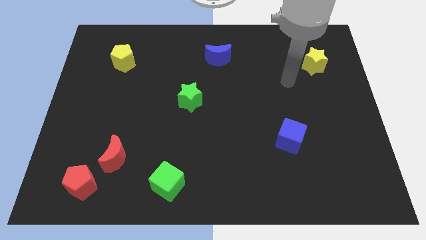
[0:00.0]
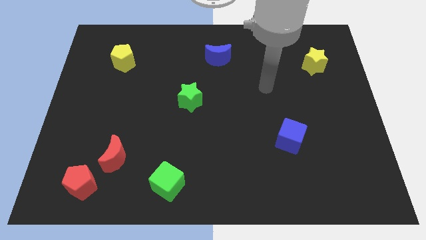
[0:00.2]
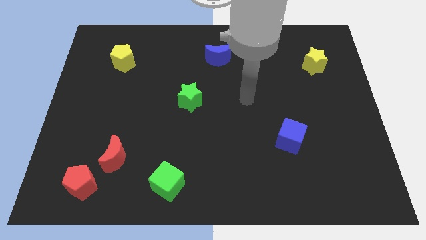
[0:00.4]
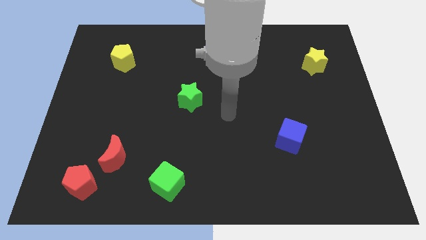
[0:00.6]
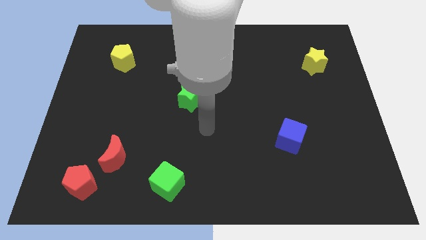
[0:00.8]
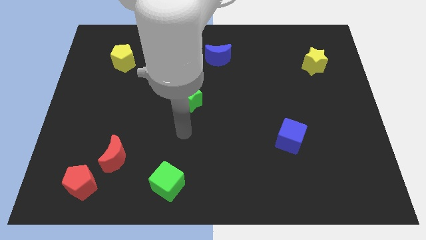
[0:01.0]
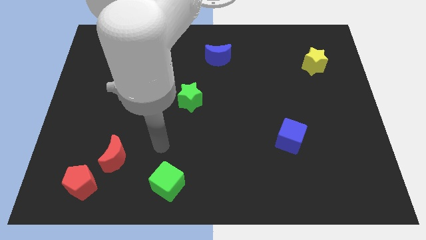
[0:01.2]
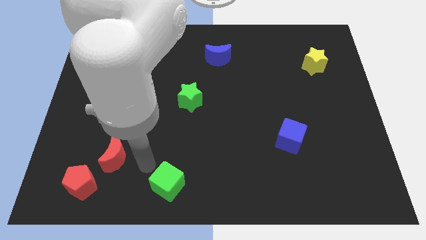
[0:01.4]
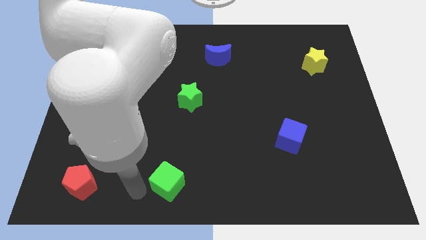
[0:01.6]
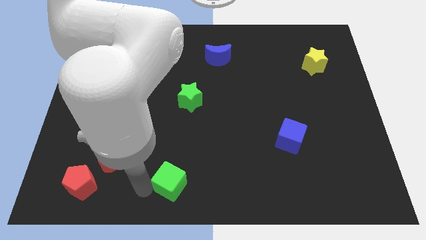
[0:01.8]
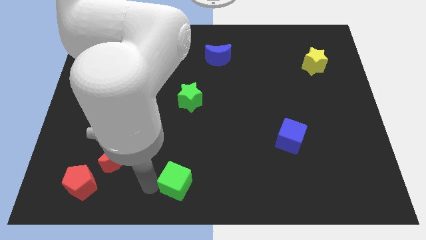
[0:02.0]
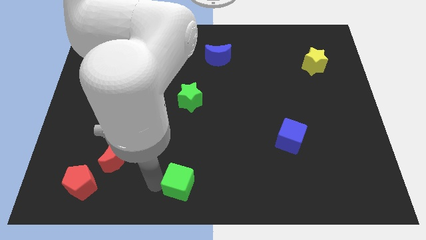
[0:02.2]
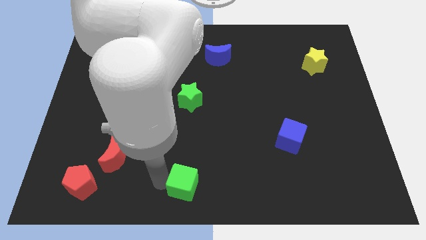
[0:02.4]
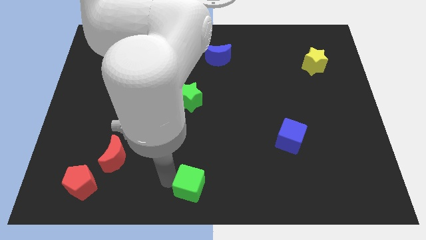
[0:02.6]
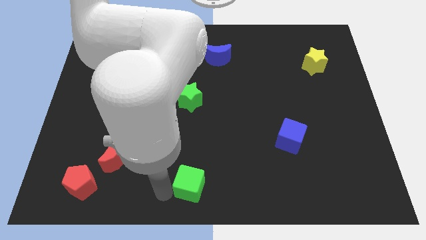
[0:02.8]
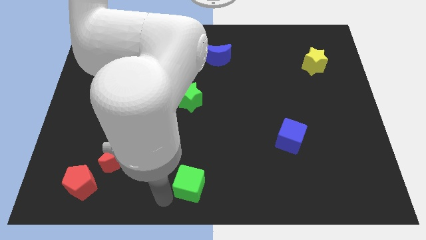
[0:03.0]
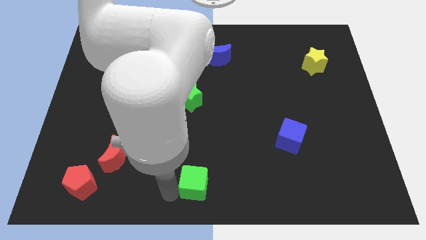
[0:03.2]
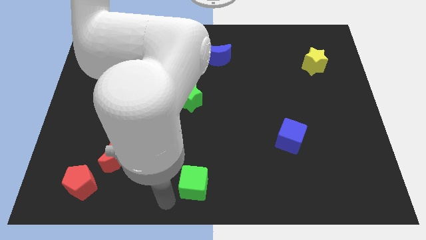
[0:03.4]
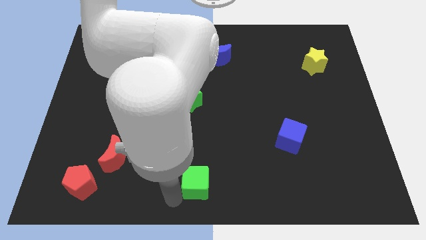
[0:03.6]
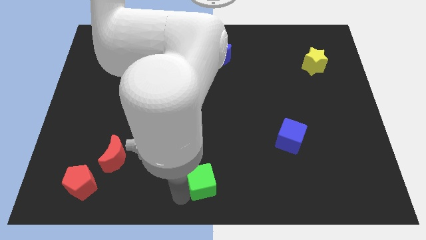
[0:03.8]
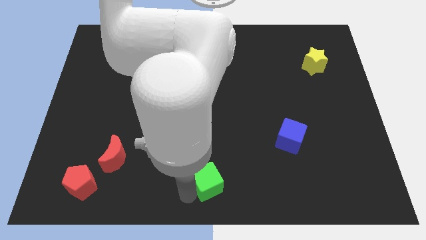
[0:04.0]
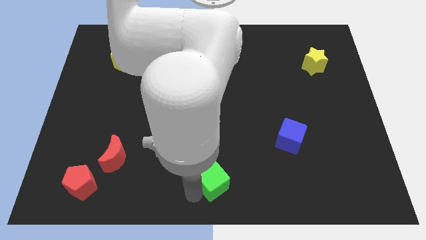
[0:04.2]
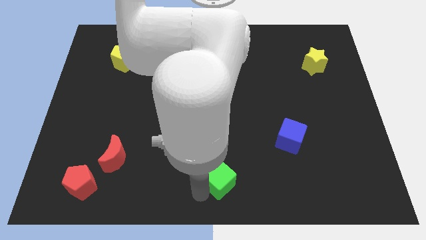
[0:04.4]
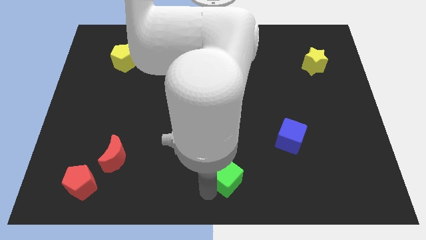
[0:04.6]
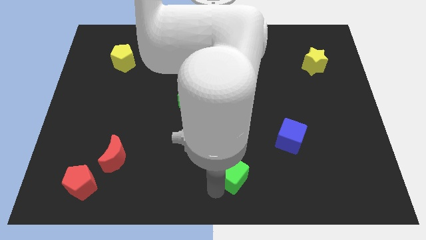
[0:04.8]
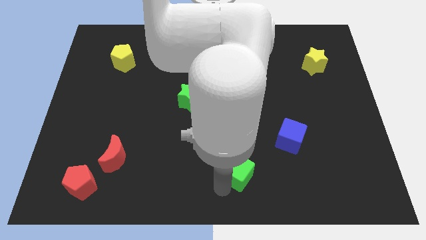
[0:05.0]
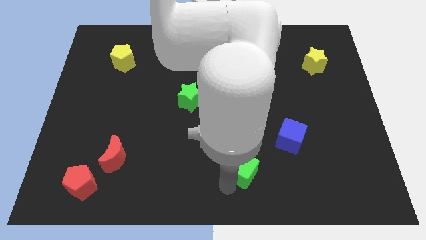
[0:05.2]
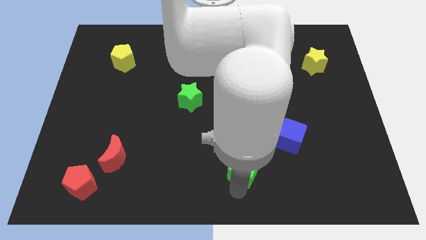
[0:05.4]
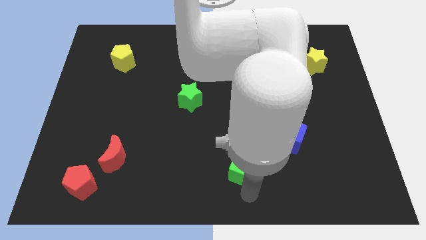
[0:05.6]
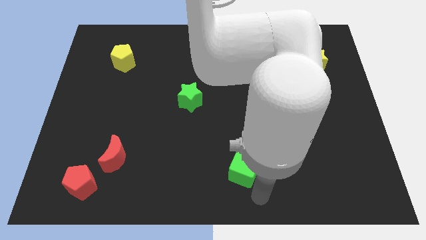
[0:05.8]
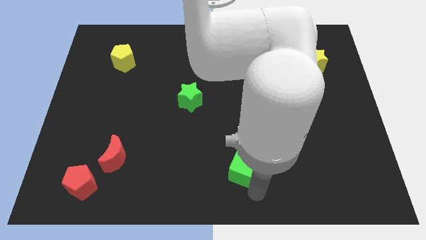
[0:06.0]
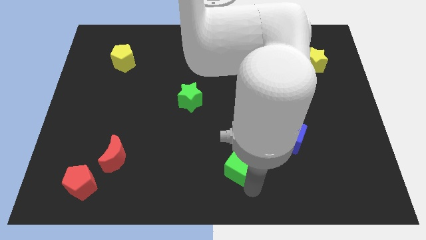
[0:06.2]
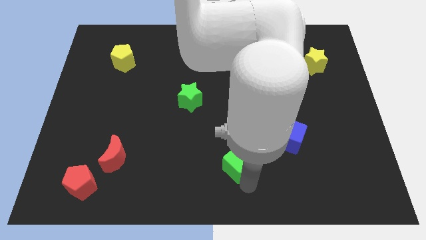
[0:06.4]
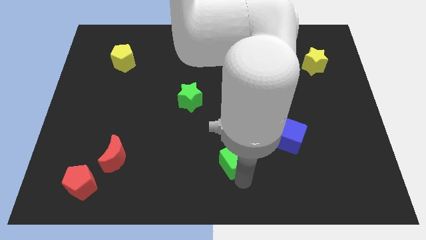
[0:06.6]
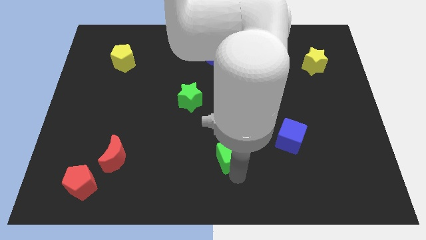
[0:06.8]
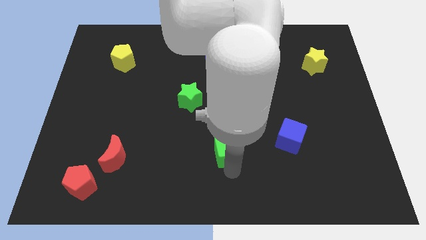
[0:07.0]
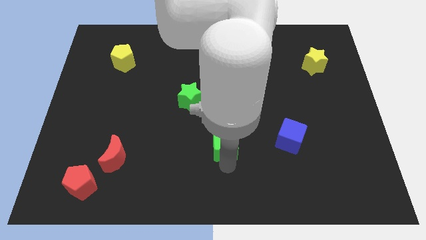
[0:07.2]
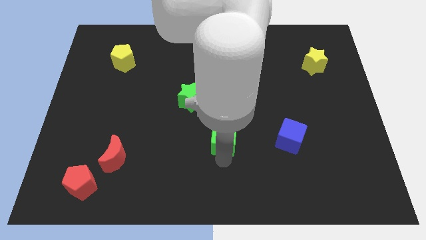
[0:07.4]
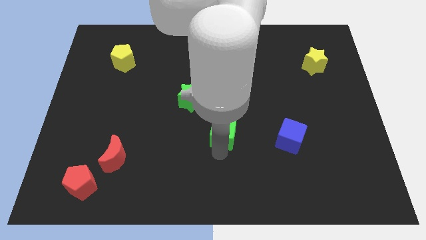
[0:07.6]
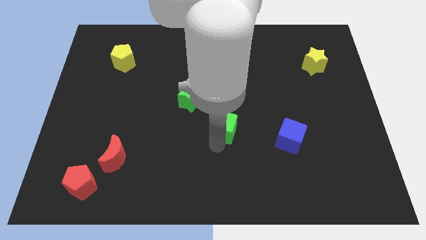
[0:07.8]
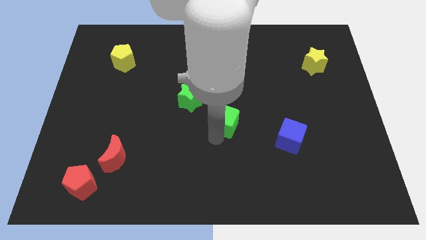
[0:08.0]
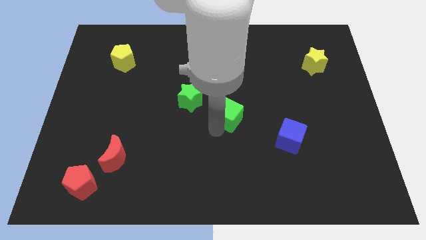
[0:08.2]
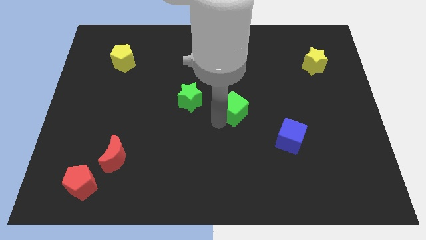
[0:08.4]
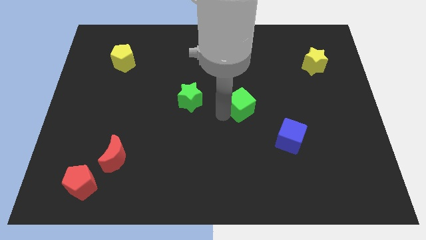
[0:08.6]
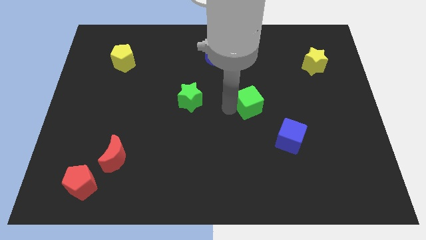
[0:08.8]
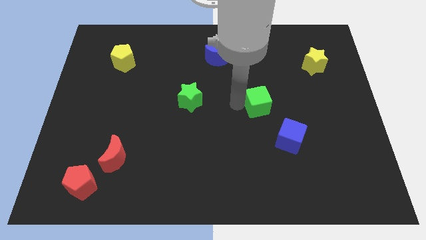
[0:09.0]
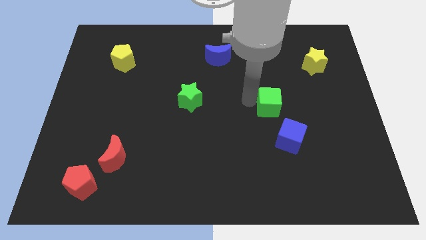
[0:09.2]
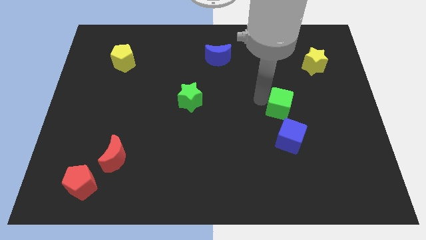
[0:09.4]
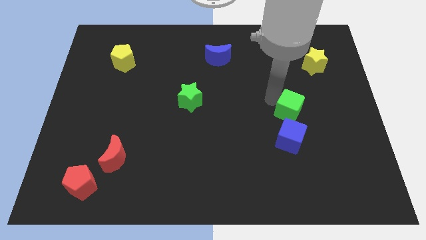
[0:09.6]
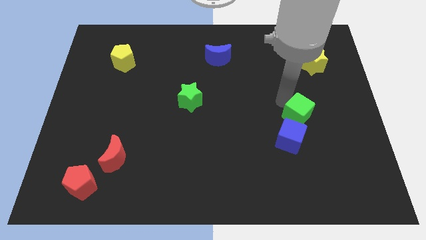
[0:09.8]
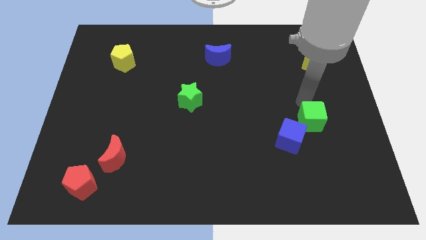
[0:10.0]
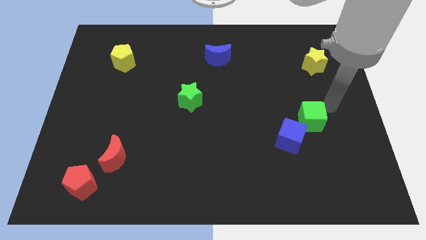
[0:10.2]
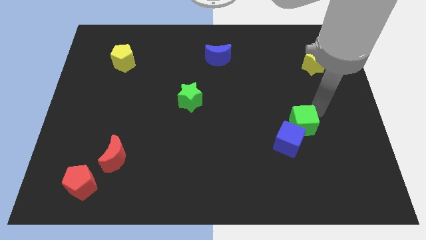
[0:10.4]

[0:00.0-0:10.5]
move the green cube towards the blue cube

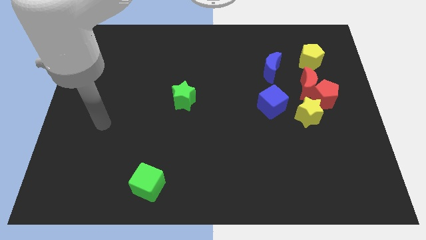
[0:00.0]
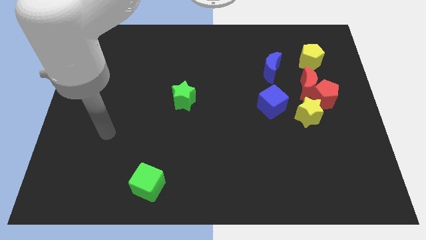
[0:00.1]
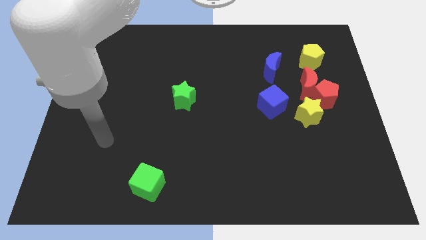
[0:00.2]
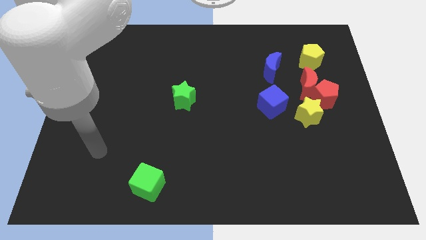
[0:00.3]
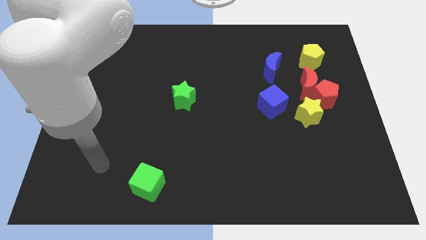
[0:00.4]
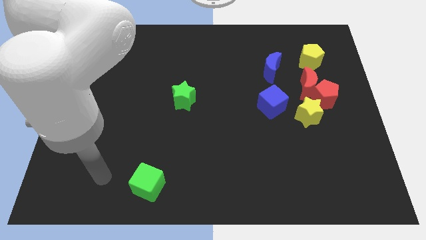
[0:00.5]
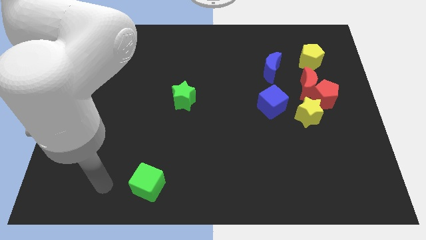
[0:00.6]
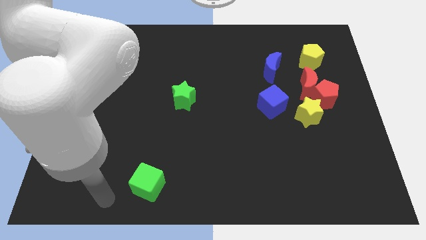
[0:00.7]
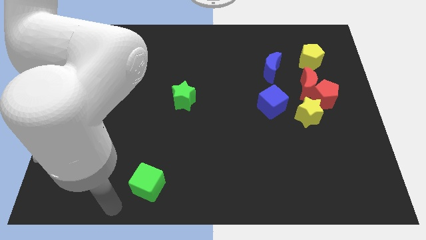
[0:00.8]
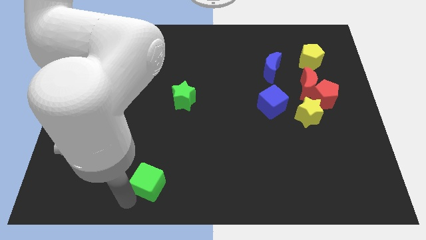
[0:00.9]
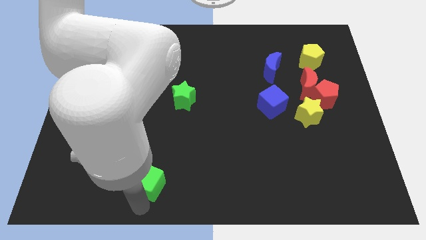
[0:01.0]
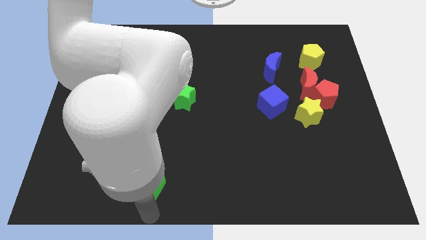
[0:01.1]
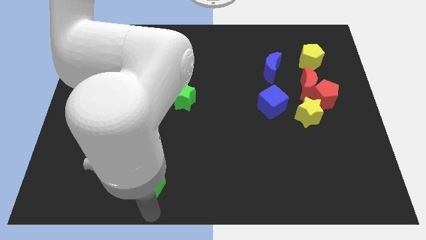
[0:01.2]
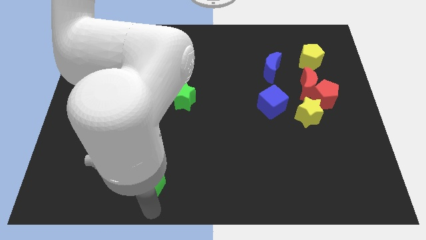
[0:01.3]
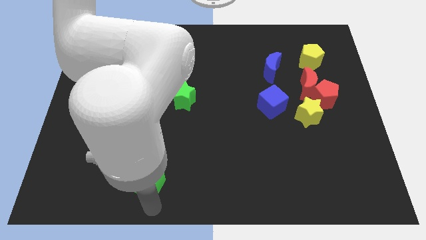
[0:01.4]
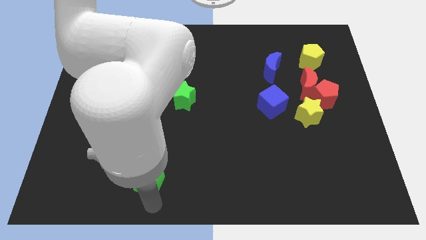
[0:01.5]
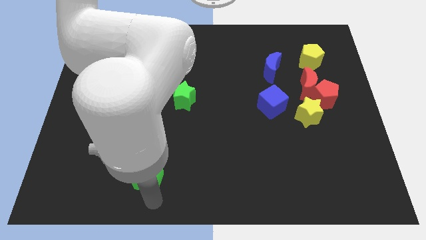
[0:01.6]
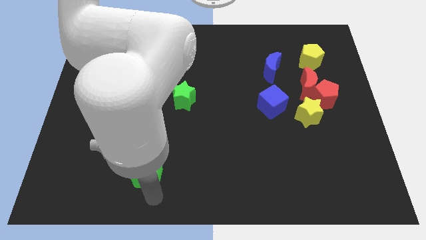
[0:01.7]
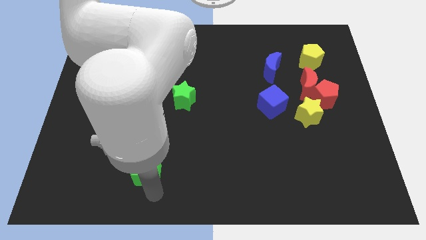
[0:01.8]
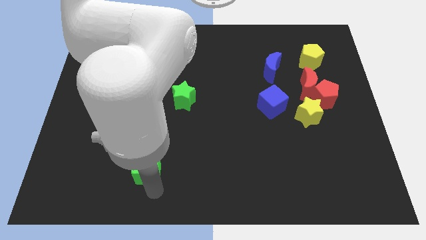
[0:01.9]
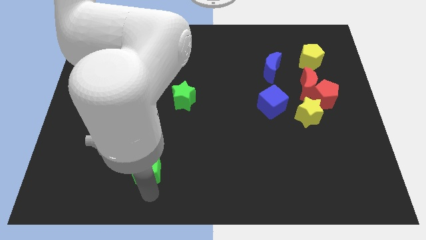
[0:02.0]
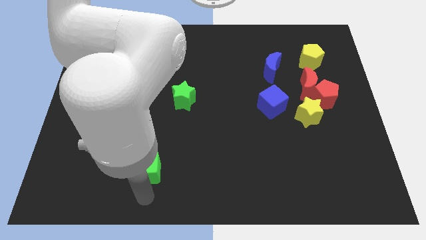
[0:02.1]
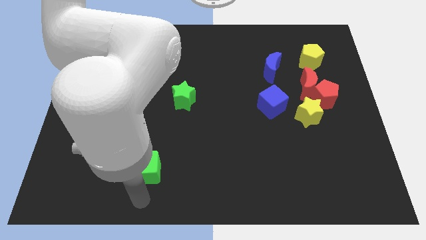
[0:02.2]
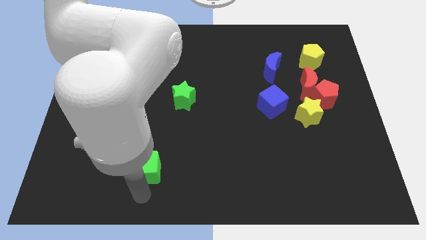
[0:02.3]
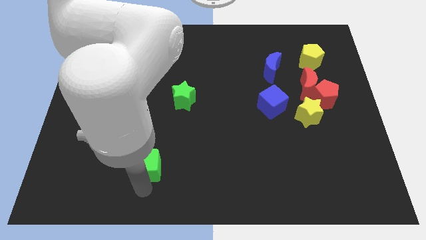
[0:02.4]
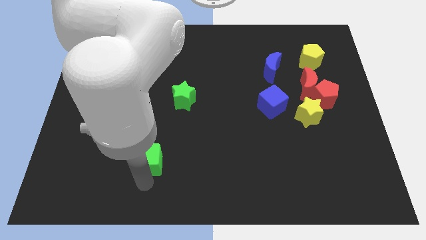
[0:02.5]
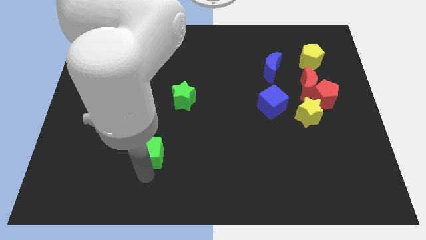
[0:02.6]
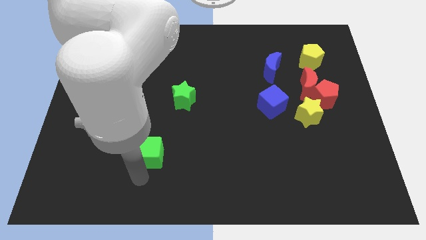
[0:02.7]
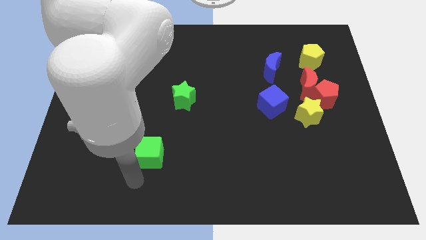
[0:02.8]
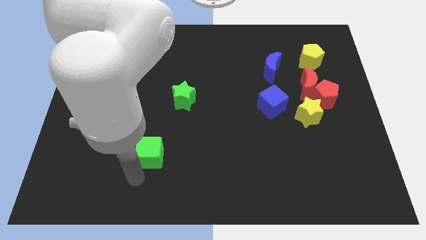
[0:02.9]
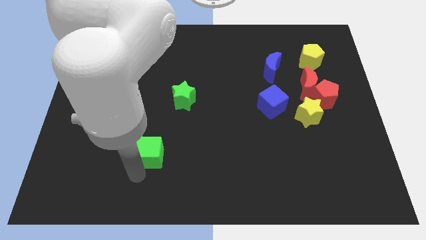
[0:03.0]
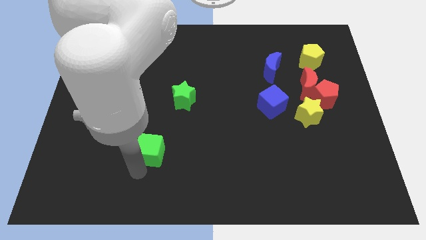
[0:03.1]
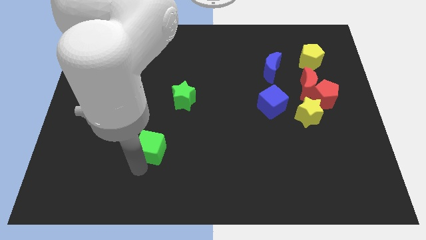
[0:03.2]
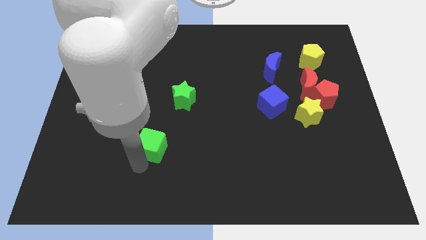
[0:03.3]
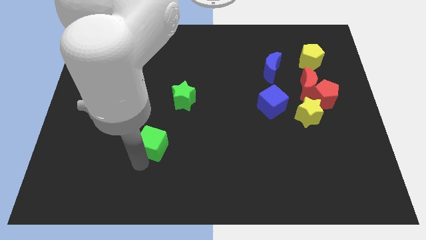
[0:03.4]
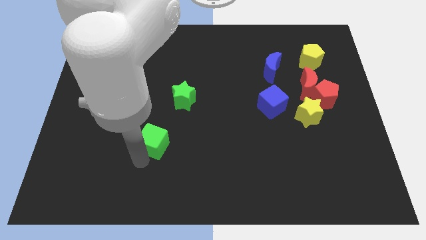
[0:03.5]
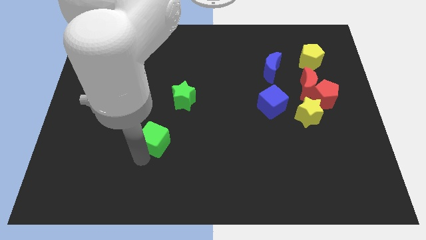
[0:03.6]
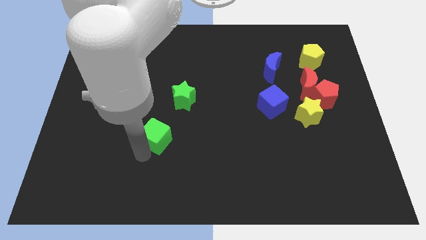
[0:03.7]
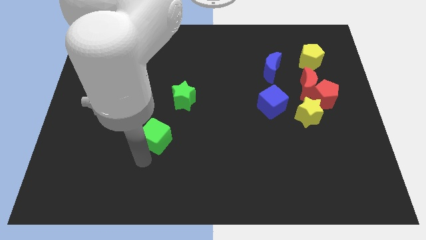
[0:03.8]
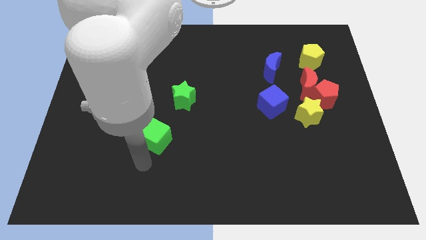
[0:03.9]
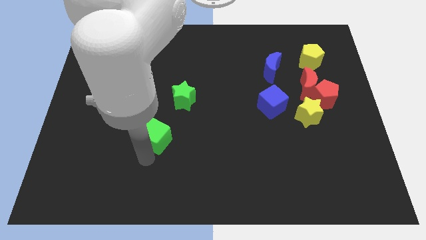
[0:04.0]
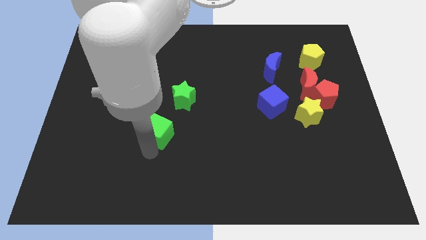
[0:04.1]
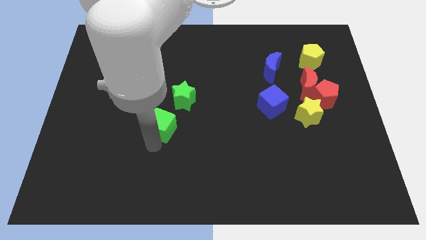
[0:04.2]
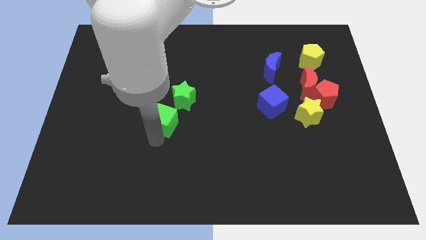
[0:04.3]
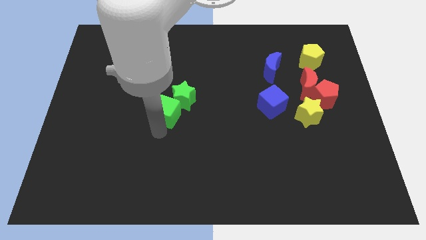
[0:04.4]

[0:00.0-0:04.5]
put the green cube towards the green star
